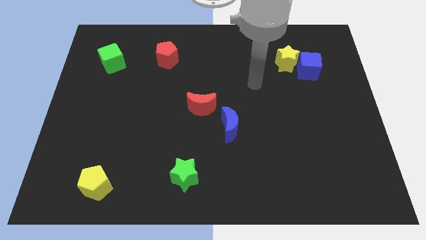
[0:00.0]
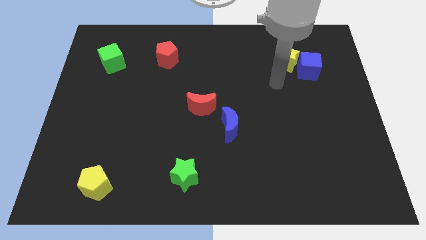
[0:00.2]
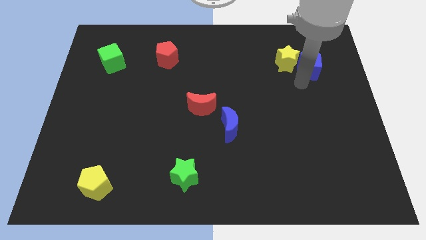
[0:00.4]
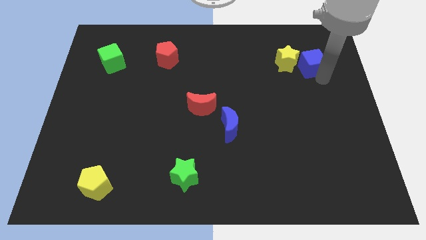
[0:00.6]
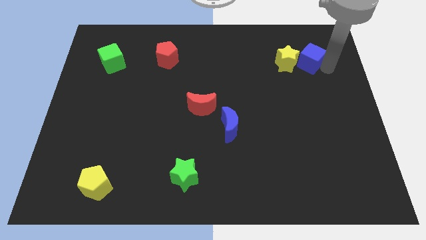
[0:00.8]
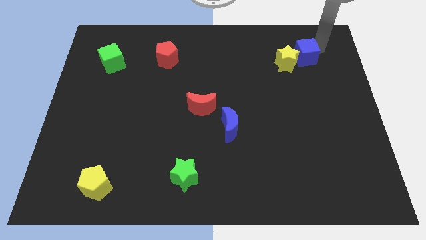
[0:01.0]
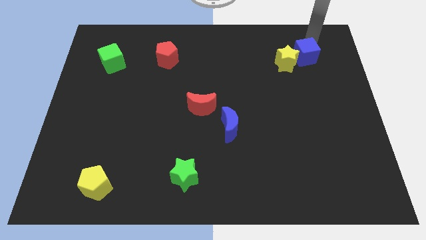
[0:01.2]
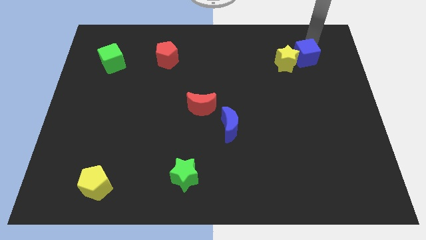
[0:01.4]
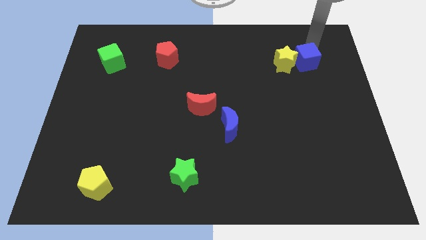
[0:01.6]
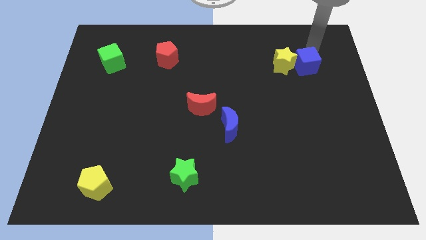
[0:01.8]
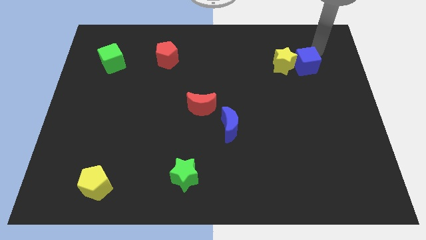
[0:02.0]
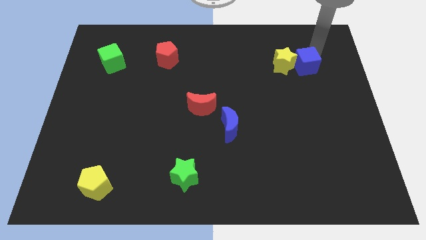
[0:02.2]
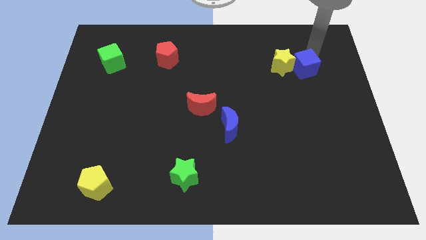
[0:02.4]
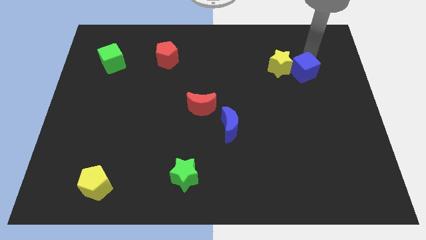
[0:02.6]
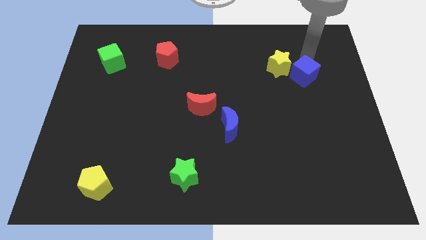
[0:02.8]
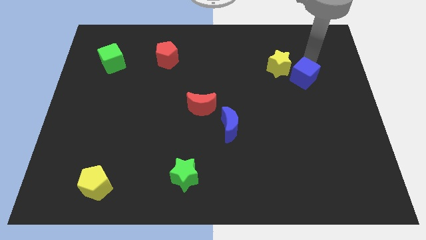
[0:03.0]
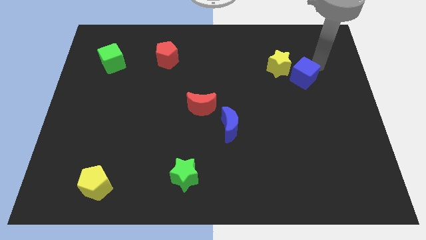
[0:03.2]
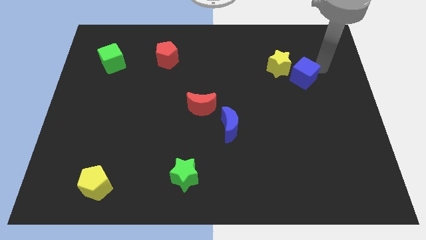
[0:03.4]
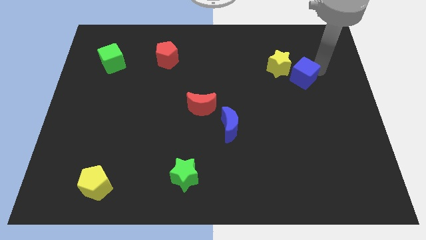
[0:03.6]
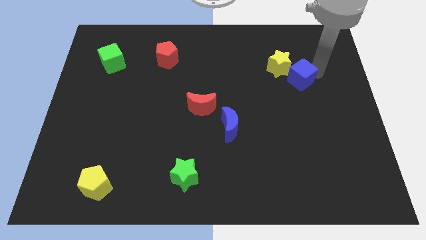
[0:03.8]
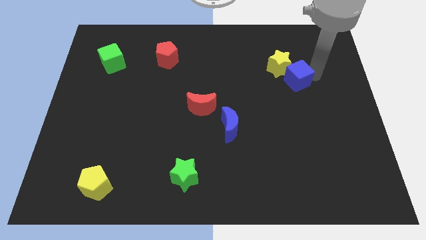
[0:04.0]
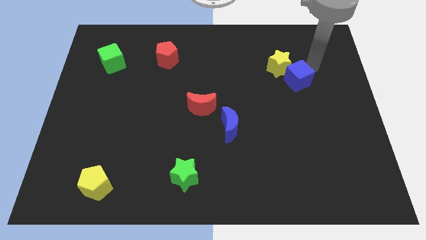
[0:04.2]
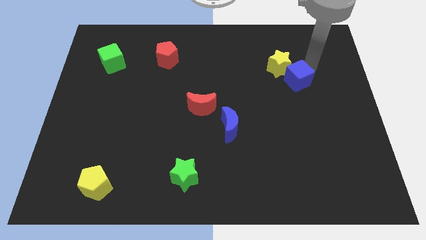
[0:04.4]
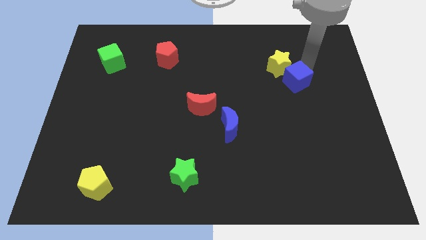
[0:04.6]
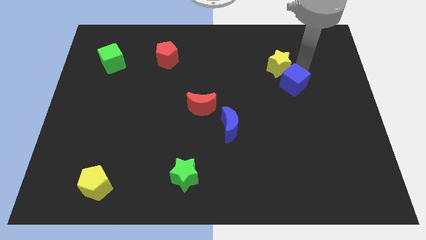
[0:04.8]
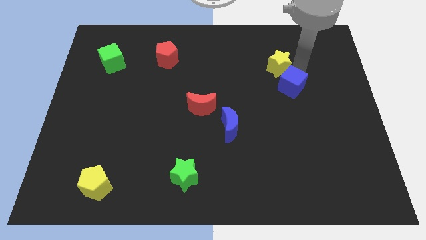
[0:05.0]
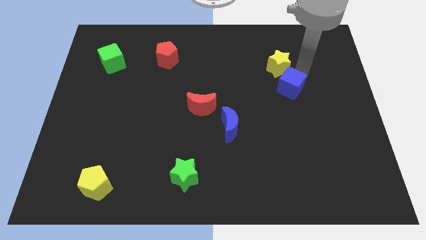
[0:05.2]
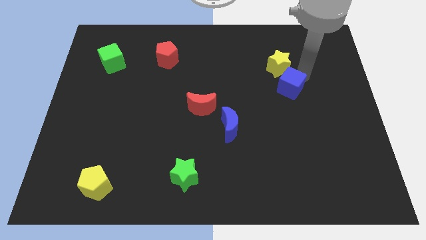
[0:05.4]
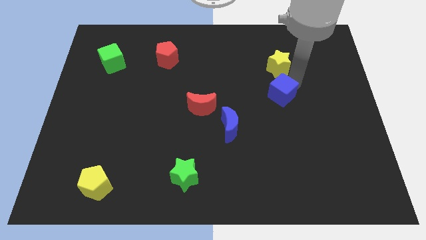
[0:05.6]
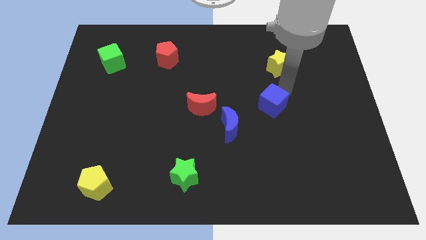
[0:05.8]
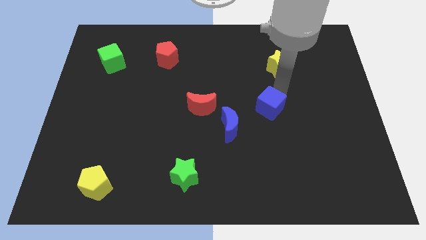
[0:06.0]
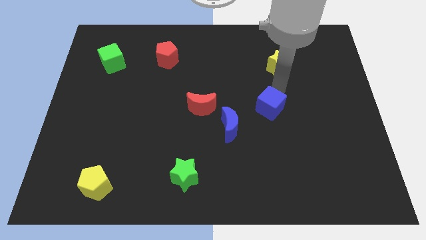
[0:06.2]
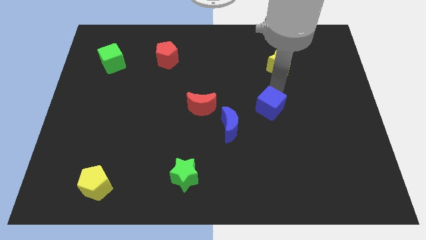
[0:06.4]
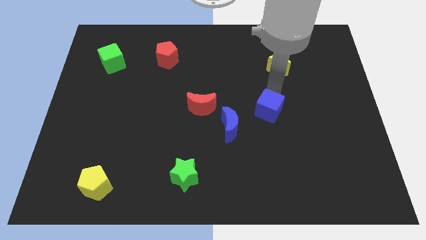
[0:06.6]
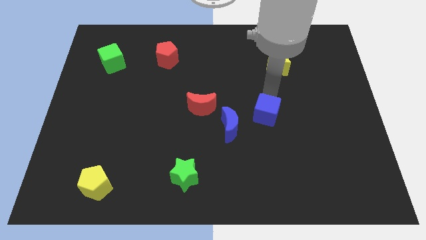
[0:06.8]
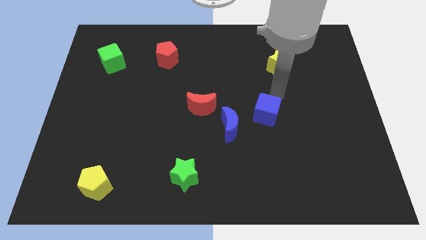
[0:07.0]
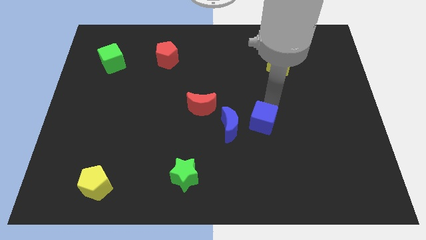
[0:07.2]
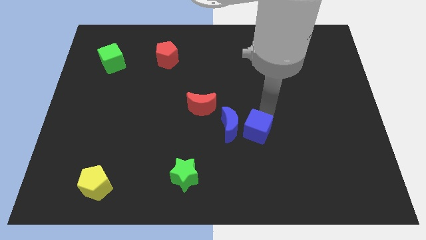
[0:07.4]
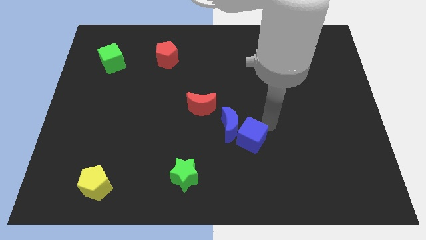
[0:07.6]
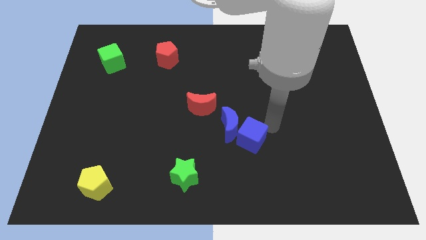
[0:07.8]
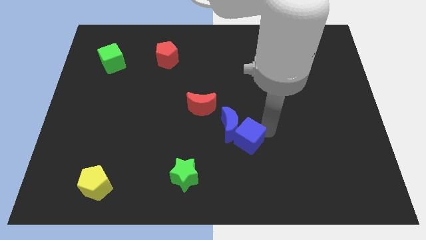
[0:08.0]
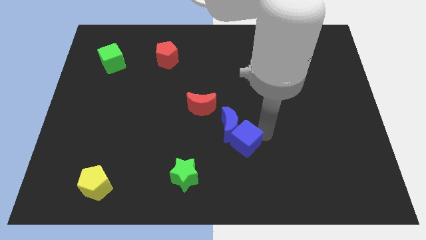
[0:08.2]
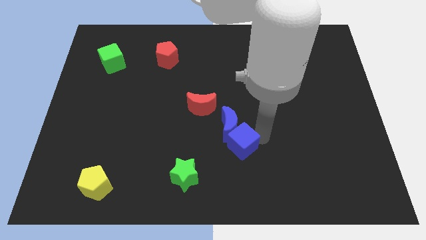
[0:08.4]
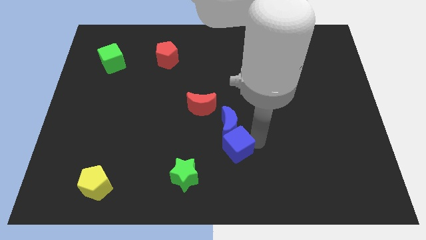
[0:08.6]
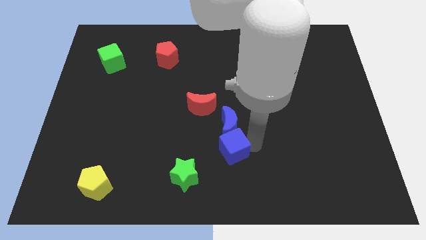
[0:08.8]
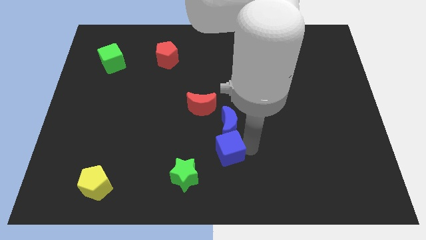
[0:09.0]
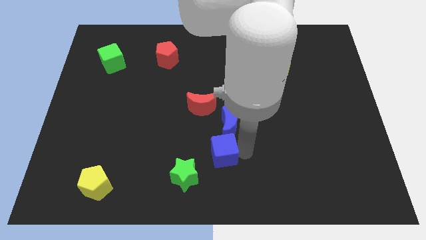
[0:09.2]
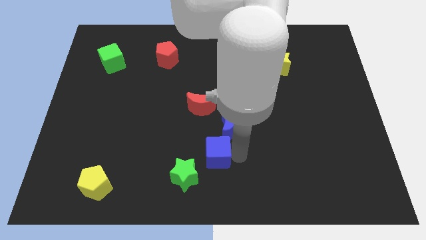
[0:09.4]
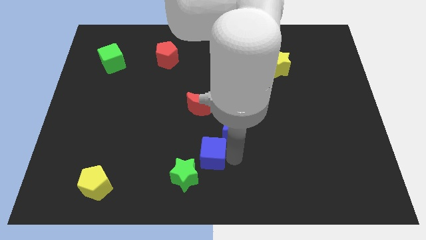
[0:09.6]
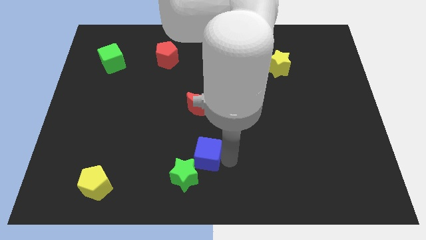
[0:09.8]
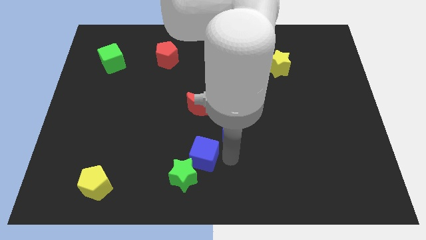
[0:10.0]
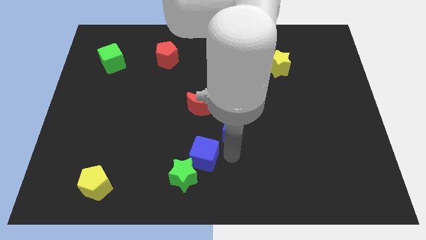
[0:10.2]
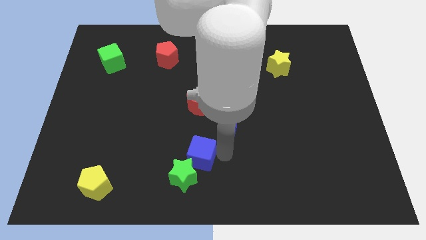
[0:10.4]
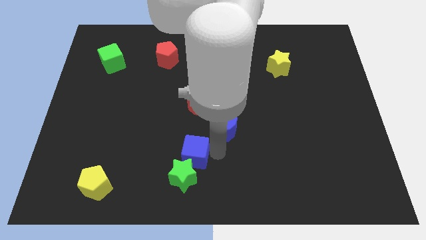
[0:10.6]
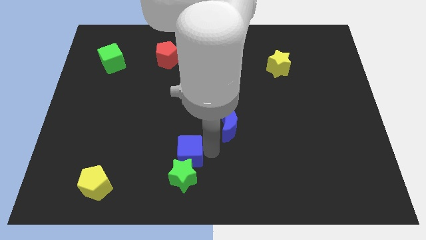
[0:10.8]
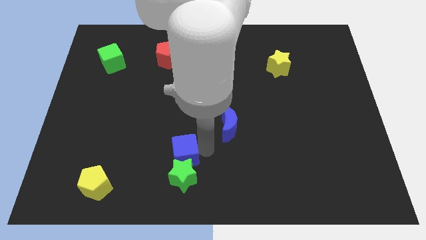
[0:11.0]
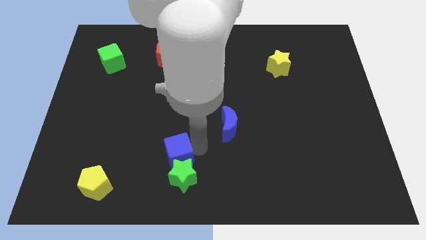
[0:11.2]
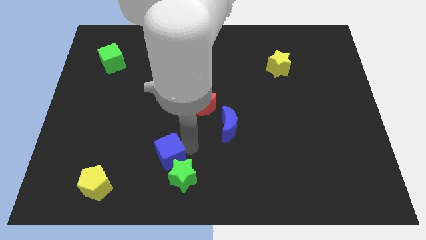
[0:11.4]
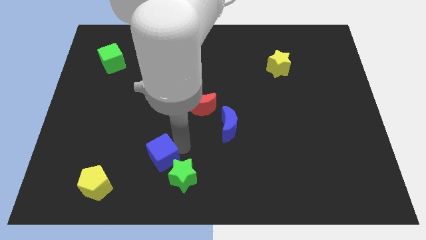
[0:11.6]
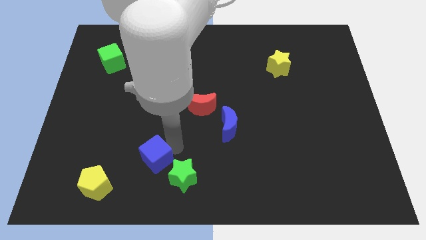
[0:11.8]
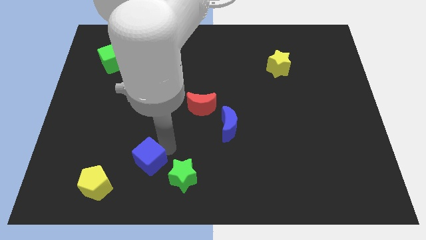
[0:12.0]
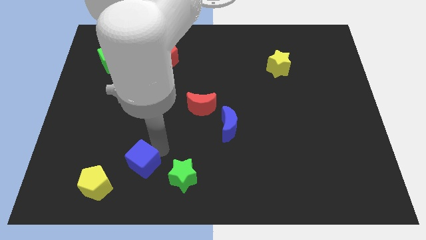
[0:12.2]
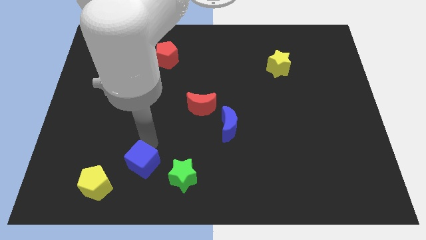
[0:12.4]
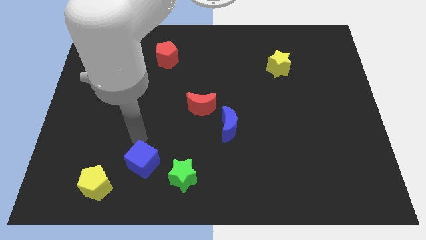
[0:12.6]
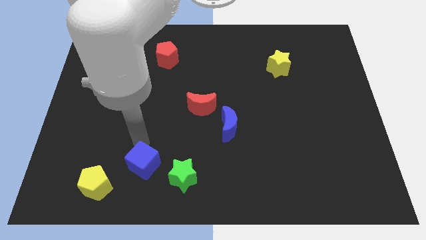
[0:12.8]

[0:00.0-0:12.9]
slide the blue cube right of the yellow pentagon

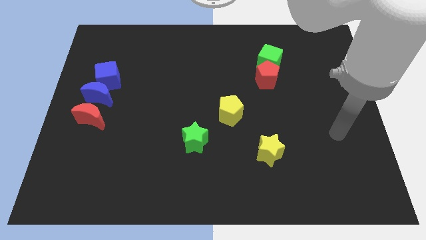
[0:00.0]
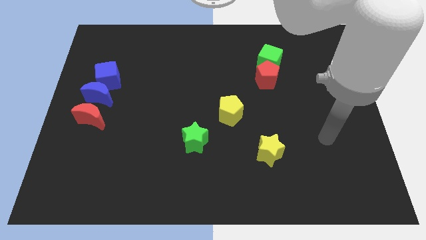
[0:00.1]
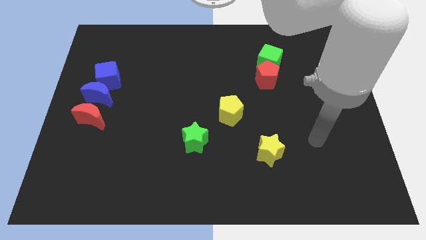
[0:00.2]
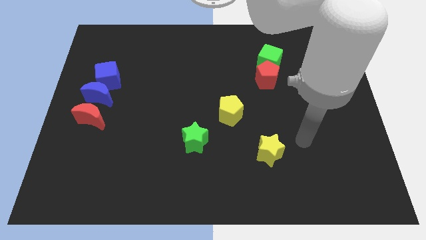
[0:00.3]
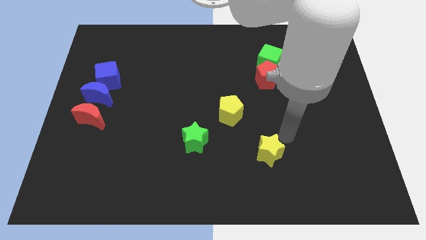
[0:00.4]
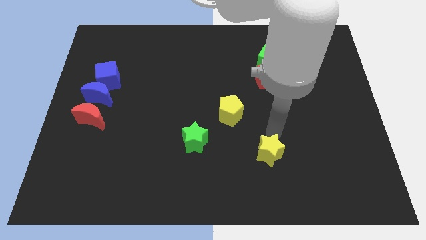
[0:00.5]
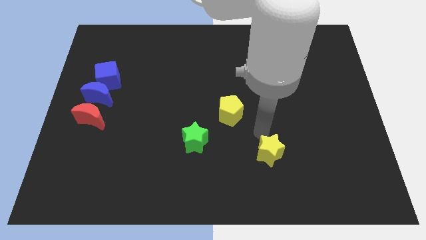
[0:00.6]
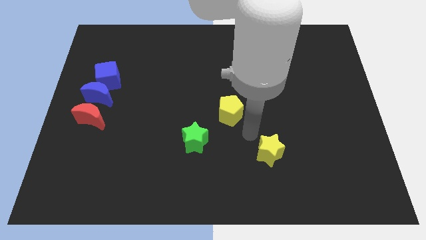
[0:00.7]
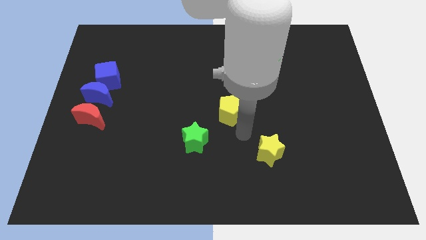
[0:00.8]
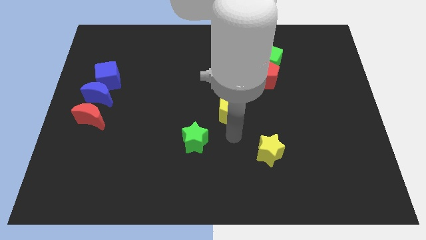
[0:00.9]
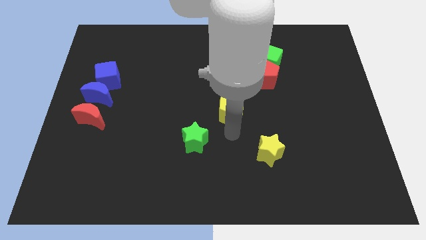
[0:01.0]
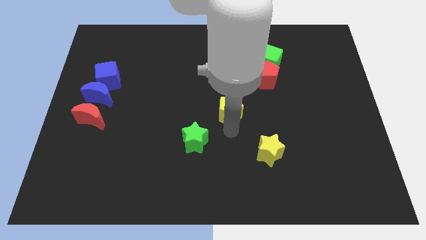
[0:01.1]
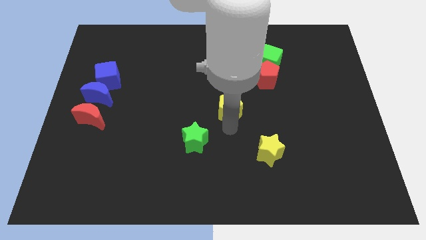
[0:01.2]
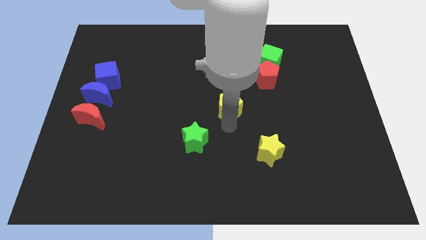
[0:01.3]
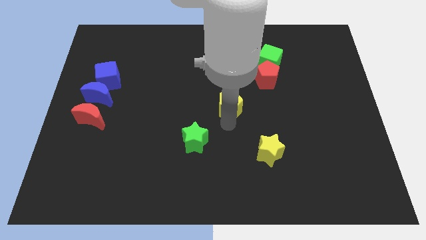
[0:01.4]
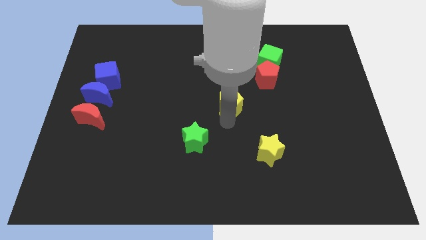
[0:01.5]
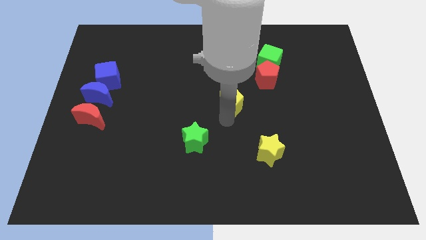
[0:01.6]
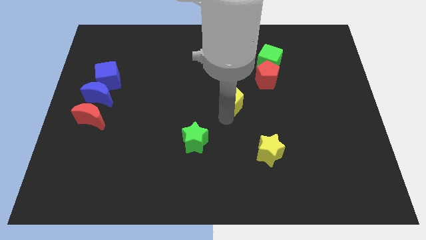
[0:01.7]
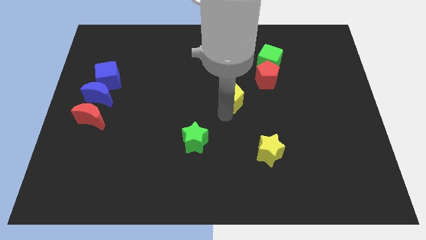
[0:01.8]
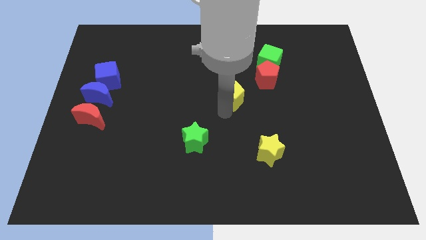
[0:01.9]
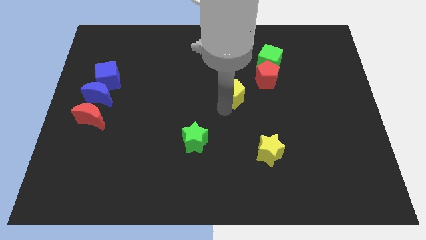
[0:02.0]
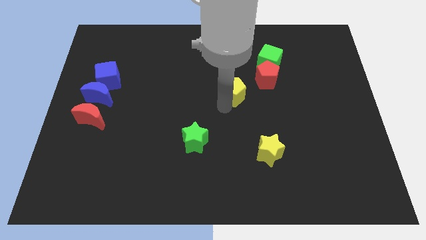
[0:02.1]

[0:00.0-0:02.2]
move the yellow pentagon to the left side of the red pentagon
